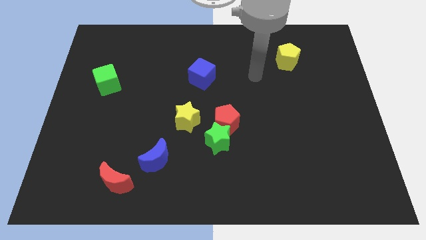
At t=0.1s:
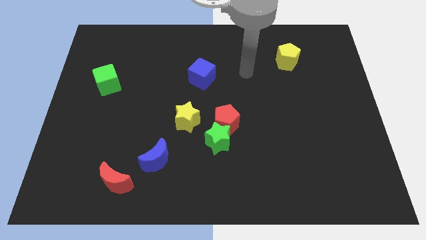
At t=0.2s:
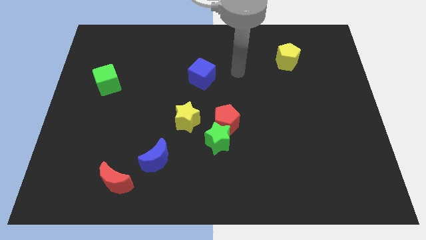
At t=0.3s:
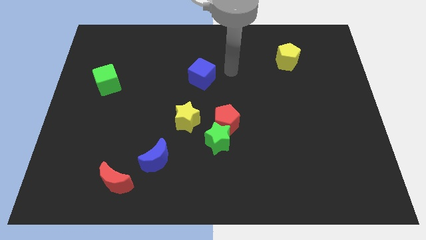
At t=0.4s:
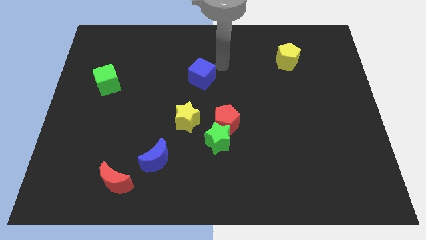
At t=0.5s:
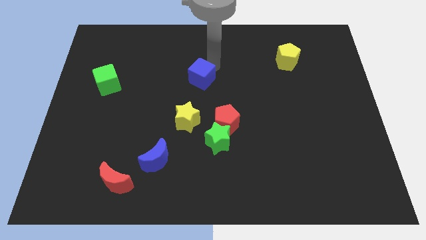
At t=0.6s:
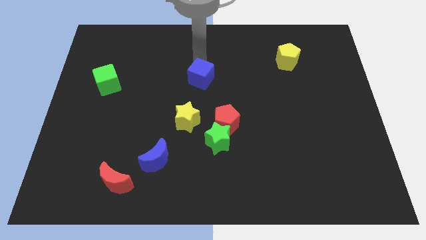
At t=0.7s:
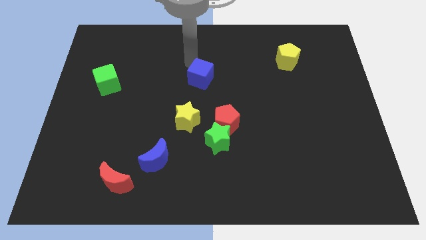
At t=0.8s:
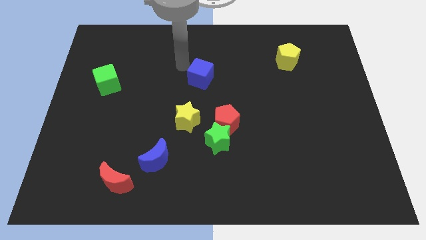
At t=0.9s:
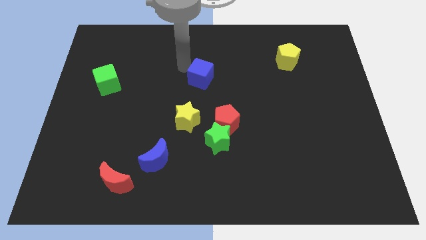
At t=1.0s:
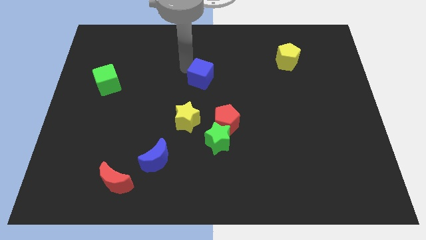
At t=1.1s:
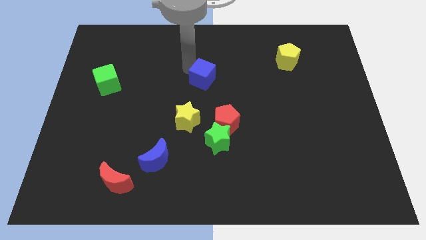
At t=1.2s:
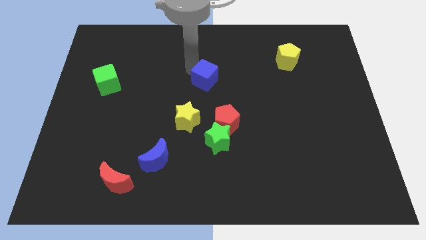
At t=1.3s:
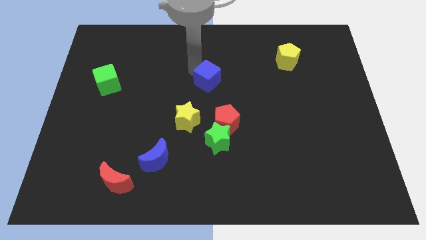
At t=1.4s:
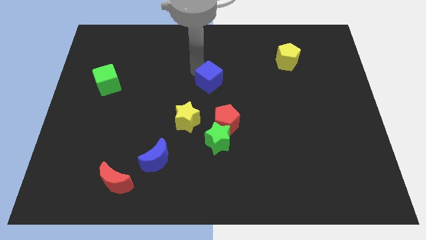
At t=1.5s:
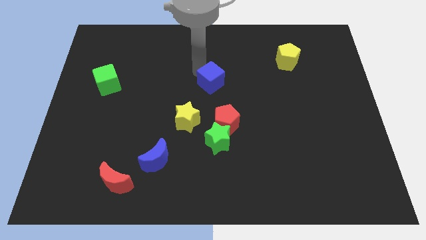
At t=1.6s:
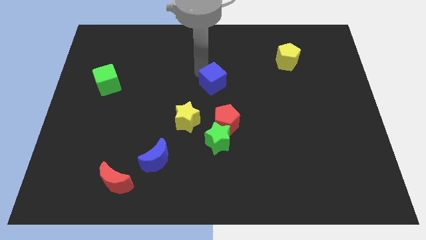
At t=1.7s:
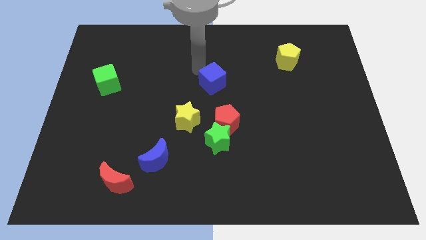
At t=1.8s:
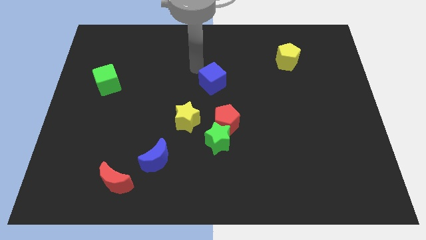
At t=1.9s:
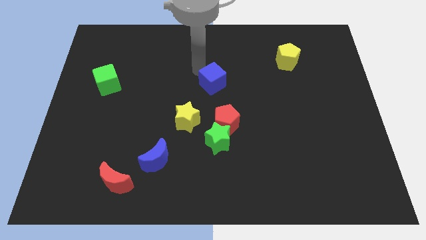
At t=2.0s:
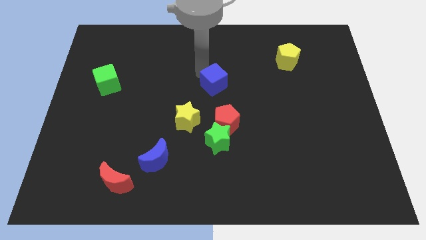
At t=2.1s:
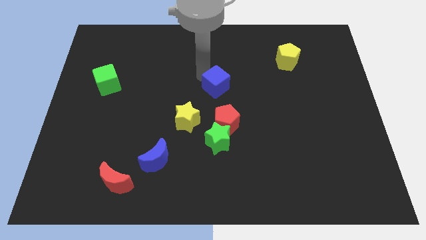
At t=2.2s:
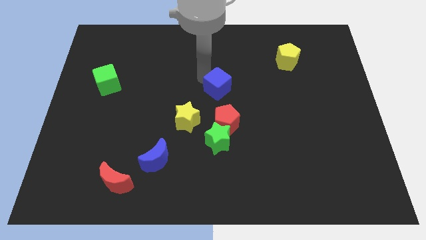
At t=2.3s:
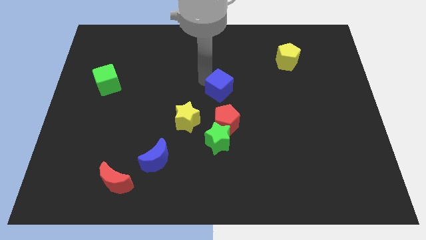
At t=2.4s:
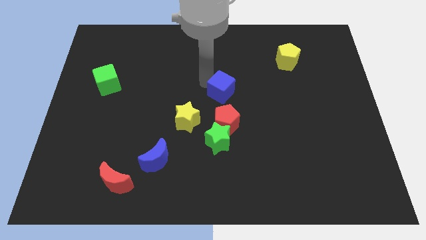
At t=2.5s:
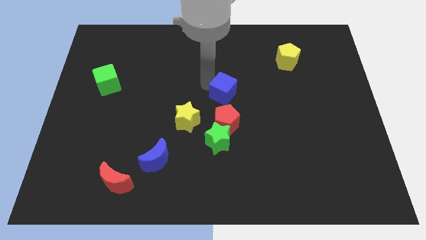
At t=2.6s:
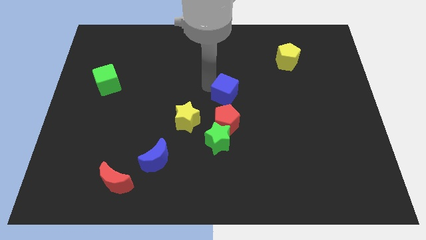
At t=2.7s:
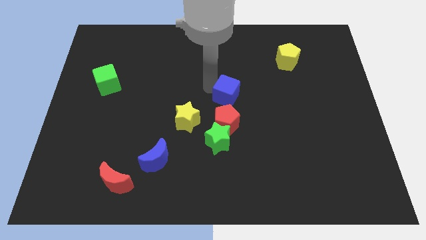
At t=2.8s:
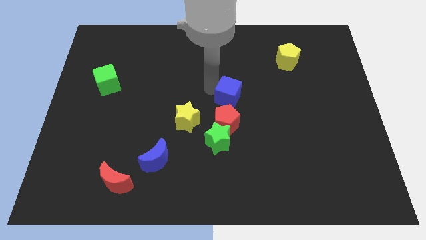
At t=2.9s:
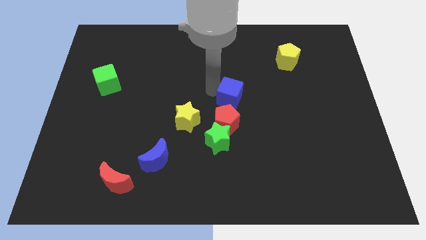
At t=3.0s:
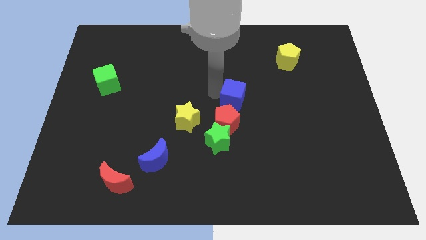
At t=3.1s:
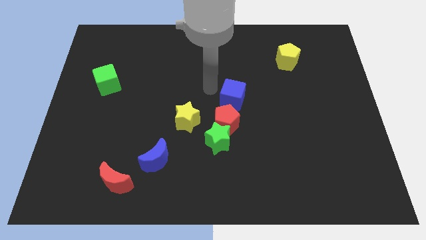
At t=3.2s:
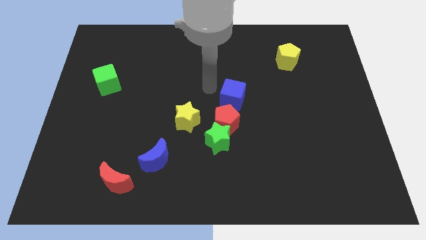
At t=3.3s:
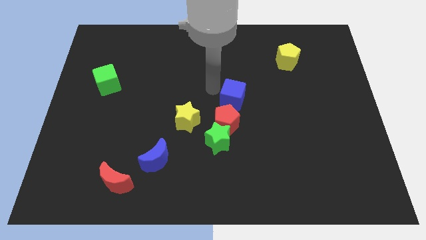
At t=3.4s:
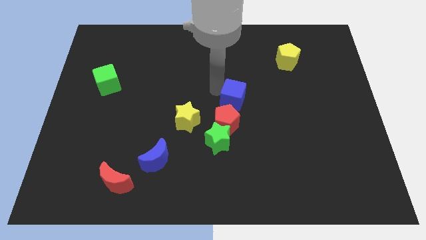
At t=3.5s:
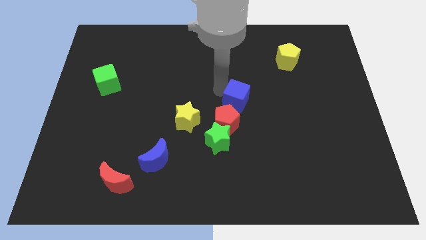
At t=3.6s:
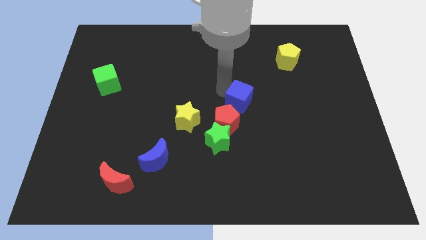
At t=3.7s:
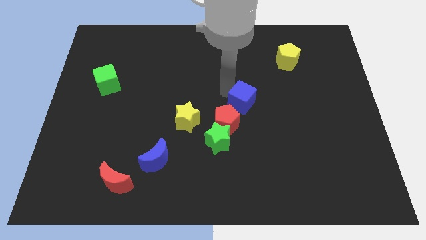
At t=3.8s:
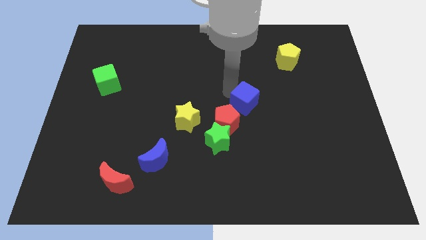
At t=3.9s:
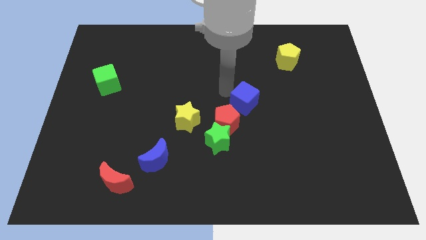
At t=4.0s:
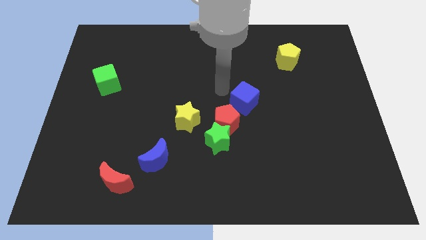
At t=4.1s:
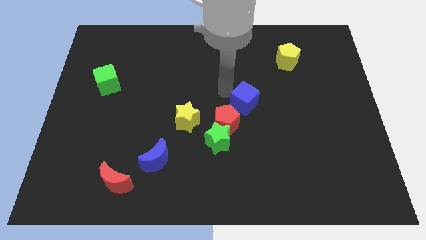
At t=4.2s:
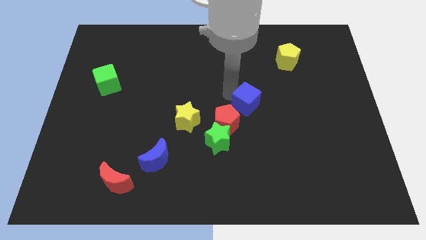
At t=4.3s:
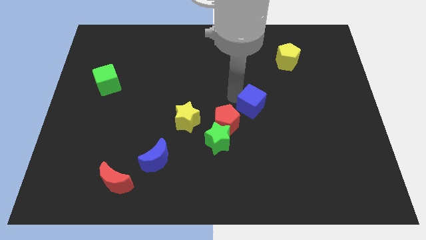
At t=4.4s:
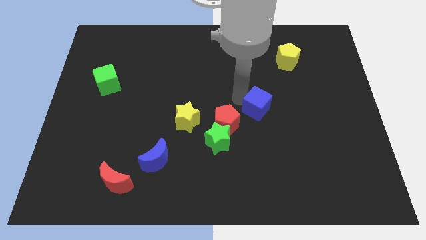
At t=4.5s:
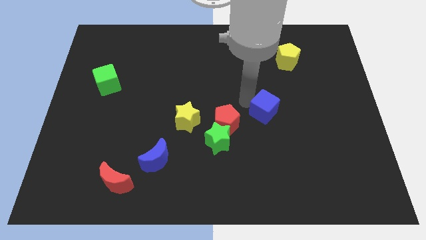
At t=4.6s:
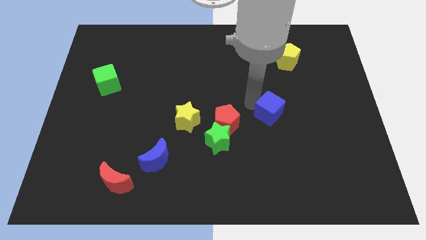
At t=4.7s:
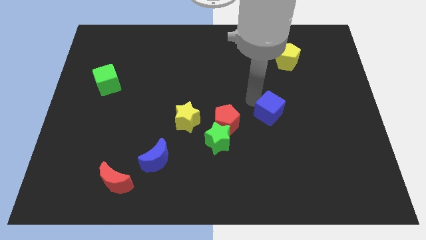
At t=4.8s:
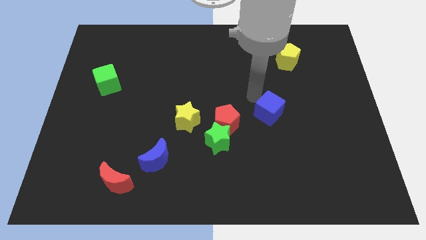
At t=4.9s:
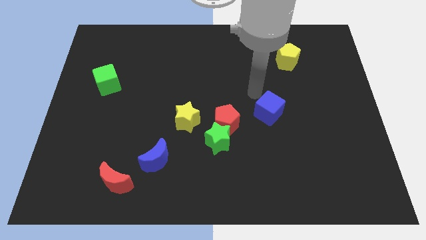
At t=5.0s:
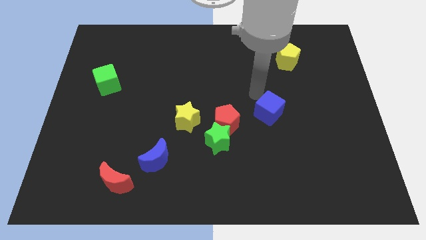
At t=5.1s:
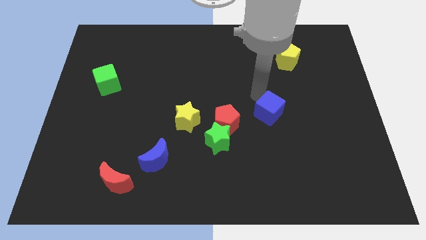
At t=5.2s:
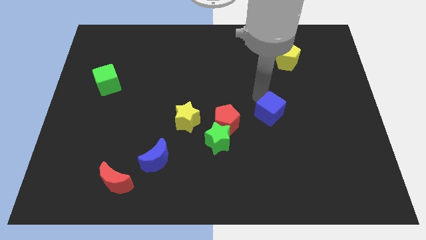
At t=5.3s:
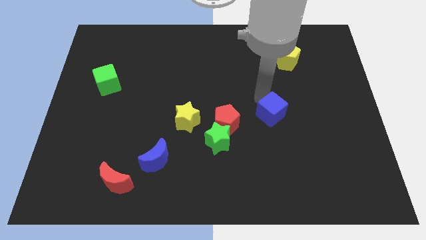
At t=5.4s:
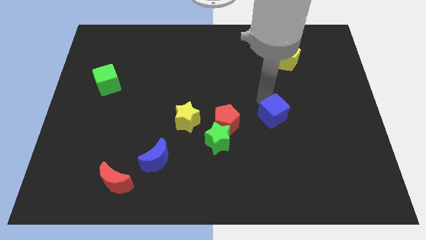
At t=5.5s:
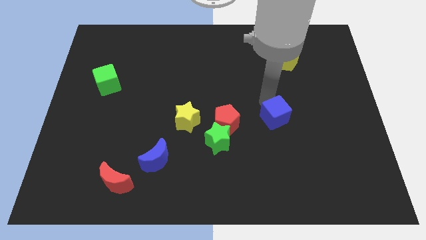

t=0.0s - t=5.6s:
move the blue cube down and then to the right

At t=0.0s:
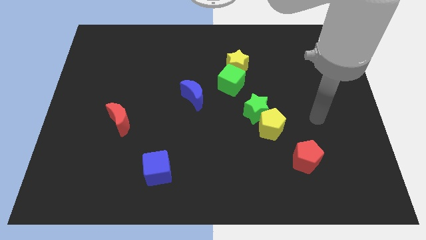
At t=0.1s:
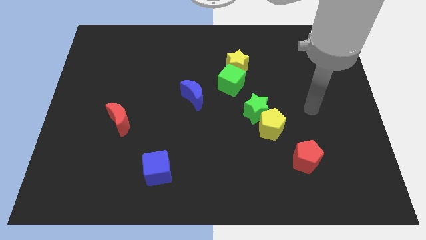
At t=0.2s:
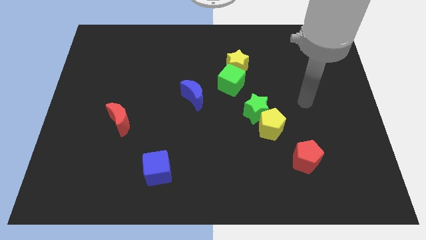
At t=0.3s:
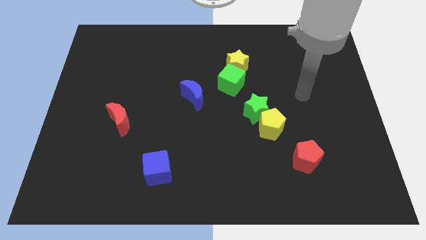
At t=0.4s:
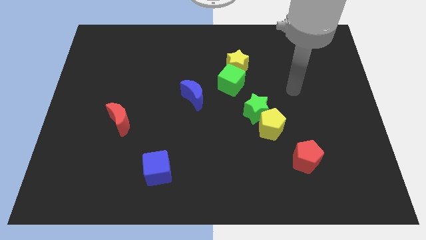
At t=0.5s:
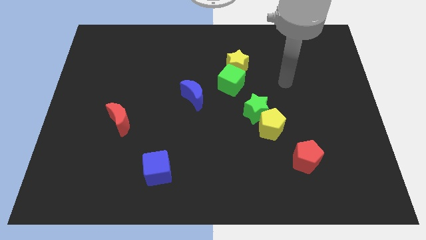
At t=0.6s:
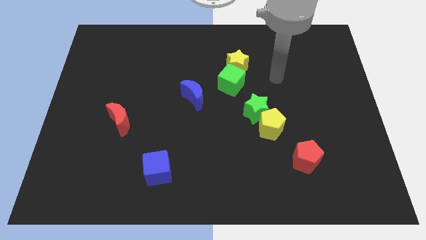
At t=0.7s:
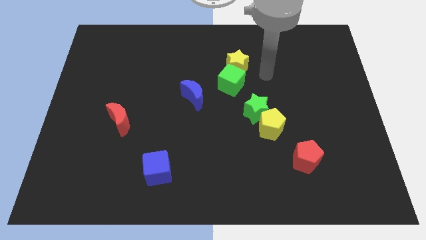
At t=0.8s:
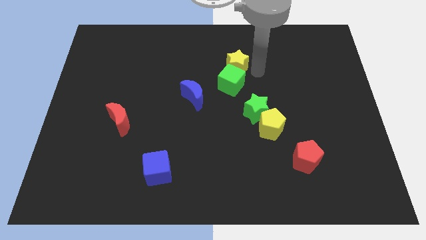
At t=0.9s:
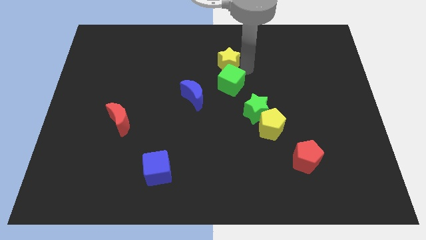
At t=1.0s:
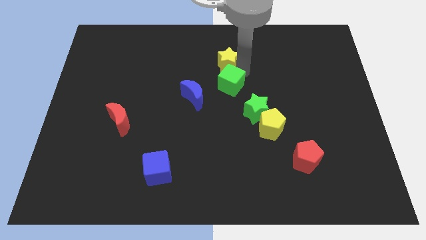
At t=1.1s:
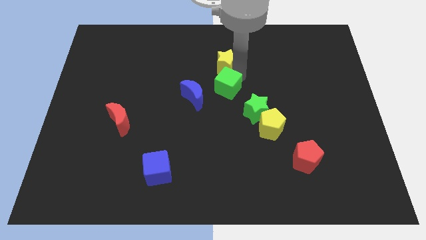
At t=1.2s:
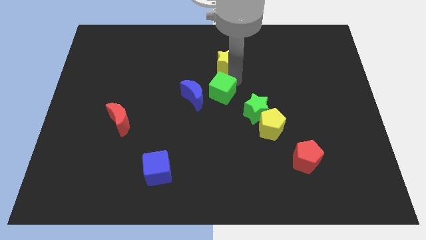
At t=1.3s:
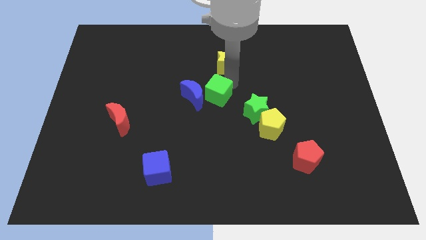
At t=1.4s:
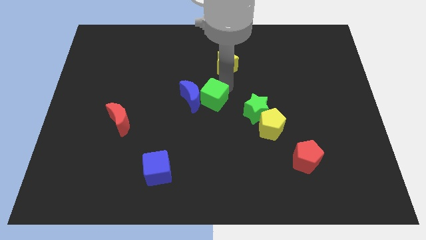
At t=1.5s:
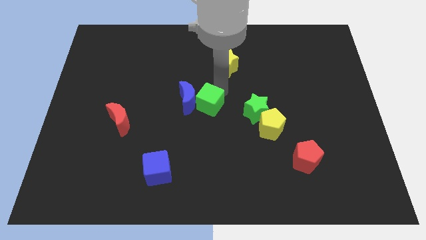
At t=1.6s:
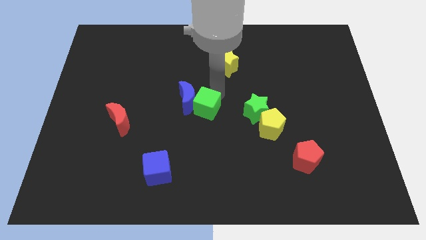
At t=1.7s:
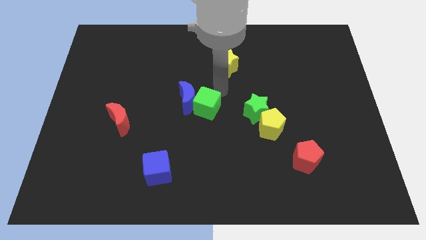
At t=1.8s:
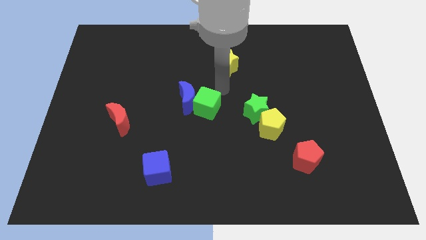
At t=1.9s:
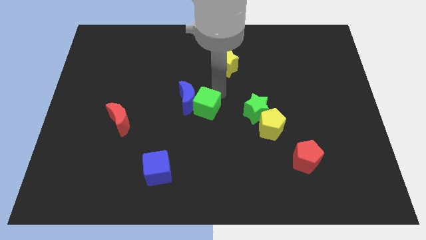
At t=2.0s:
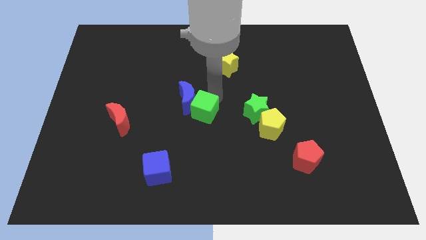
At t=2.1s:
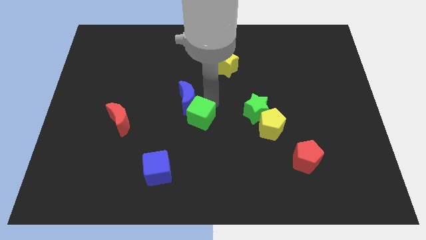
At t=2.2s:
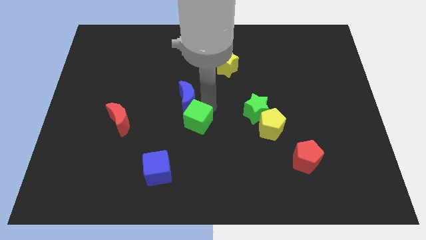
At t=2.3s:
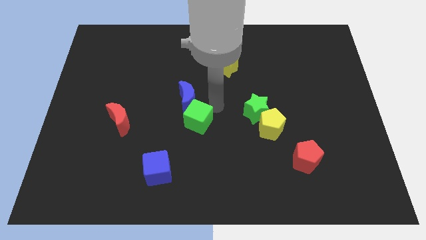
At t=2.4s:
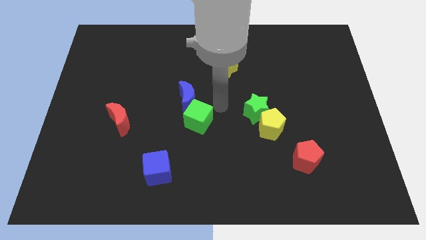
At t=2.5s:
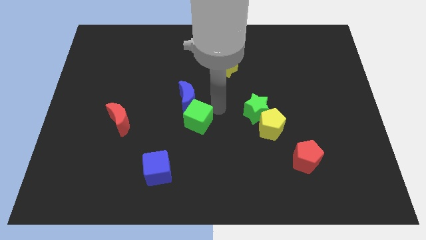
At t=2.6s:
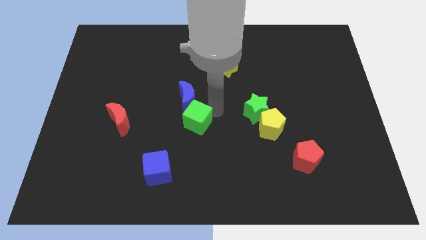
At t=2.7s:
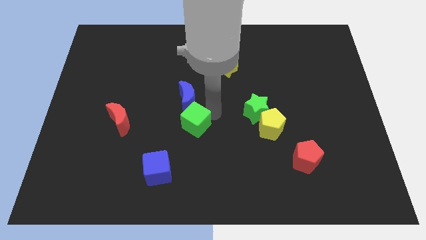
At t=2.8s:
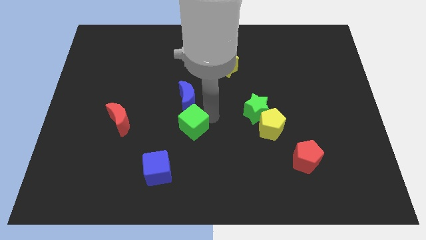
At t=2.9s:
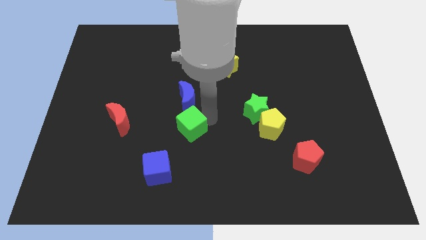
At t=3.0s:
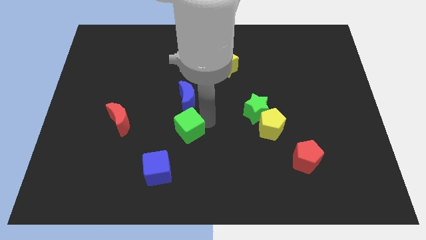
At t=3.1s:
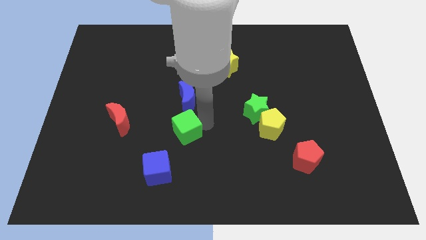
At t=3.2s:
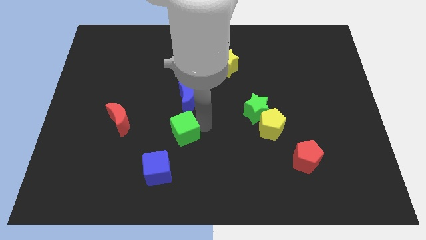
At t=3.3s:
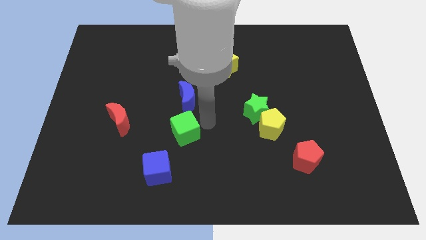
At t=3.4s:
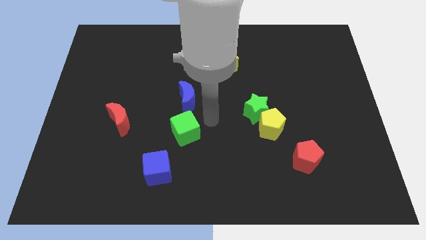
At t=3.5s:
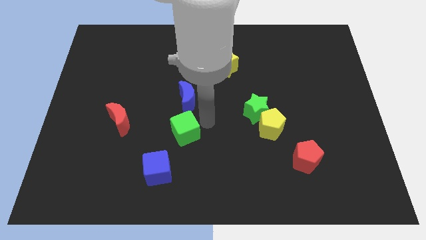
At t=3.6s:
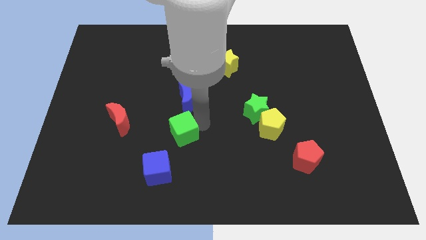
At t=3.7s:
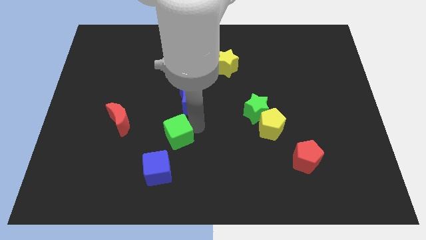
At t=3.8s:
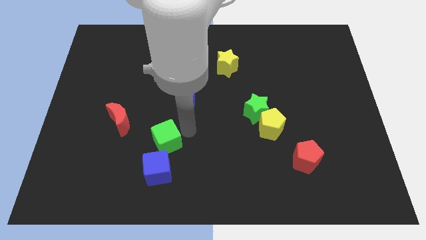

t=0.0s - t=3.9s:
move the green cube down and left
